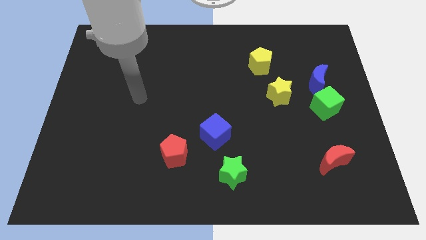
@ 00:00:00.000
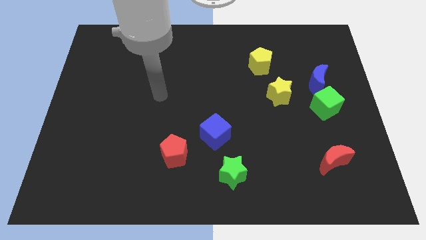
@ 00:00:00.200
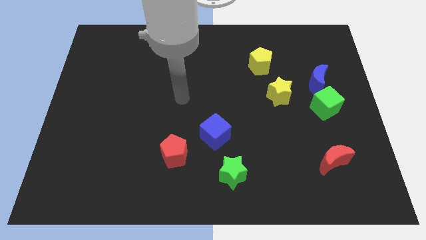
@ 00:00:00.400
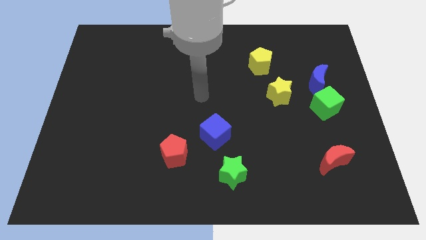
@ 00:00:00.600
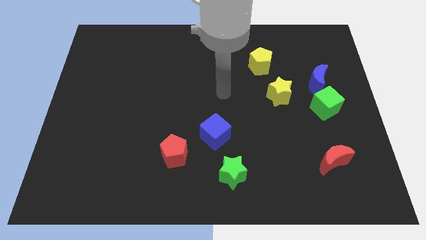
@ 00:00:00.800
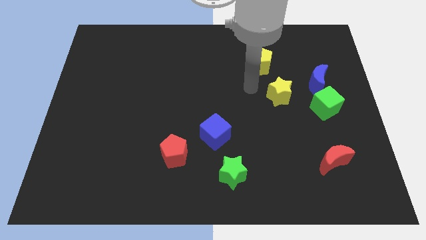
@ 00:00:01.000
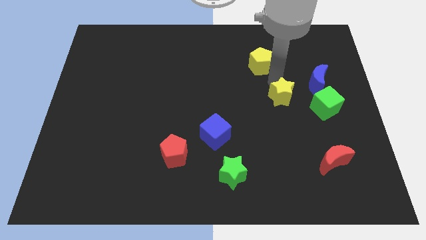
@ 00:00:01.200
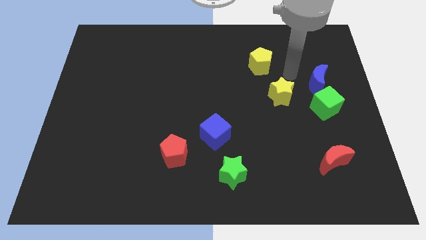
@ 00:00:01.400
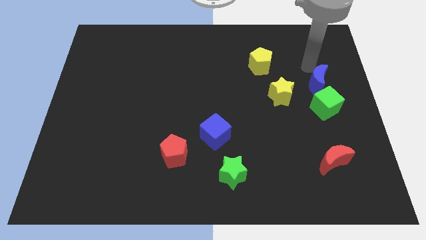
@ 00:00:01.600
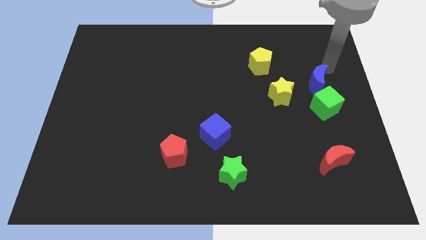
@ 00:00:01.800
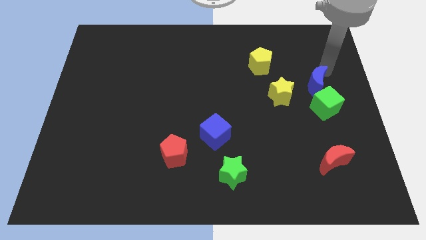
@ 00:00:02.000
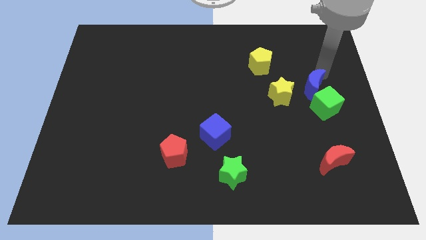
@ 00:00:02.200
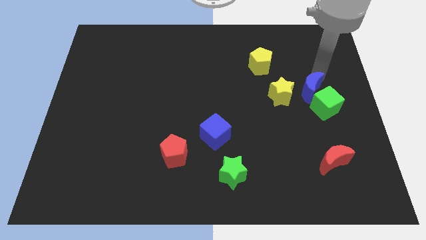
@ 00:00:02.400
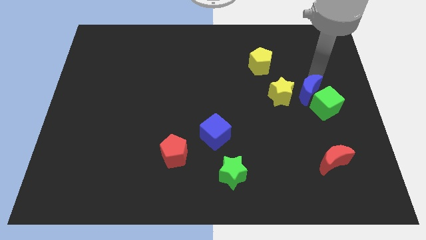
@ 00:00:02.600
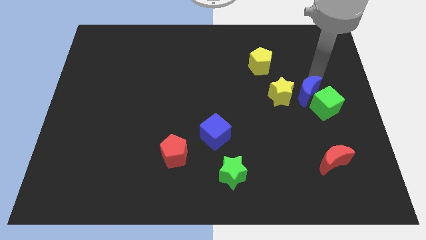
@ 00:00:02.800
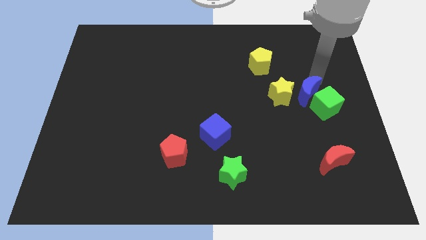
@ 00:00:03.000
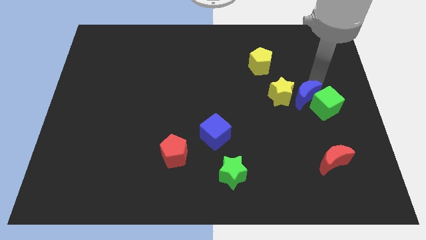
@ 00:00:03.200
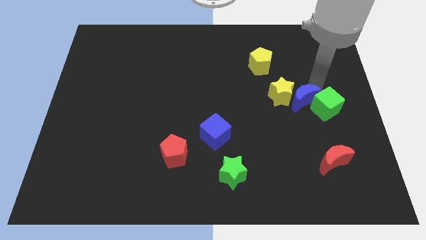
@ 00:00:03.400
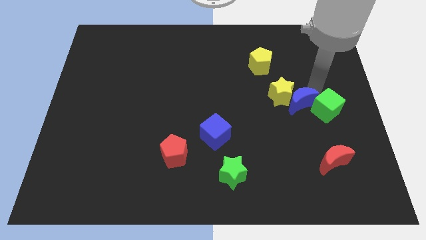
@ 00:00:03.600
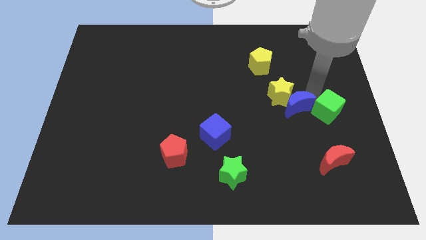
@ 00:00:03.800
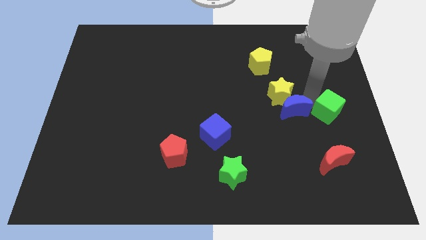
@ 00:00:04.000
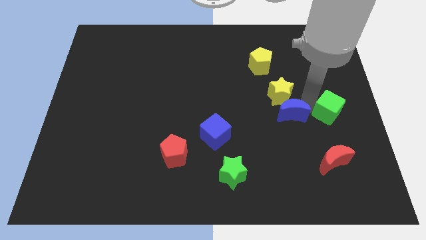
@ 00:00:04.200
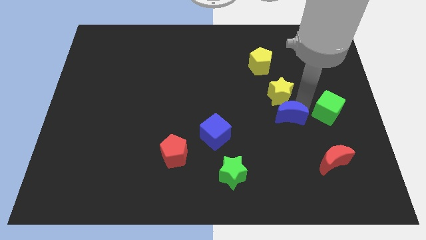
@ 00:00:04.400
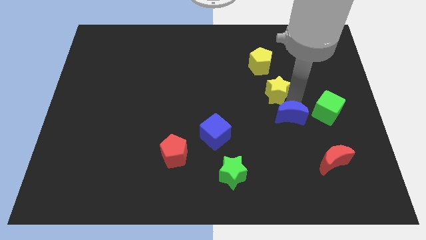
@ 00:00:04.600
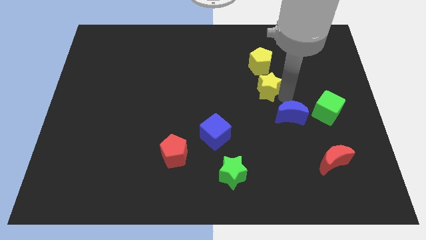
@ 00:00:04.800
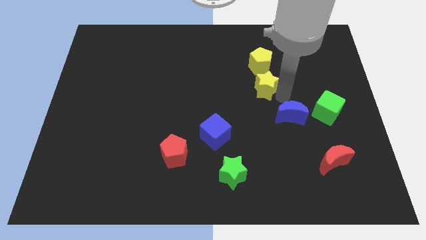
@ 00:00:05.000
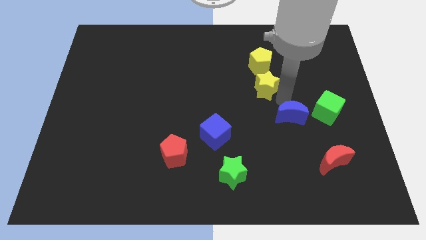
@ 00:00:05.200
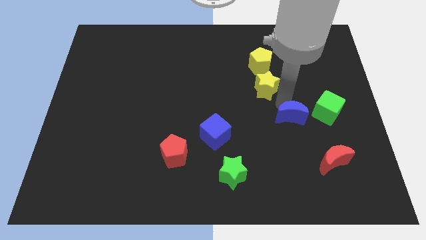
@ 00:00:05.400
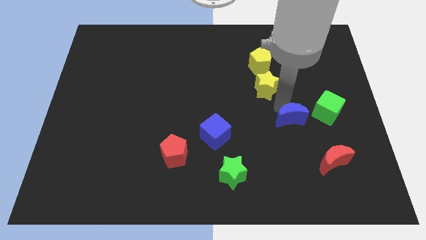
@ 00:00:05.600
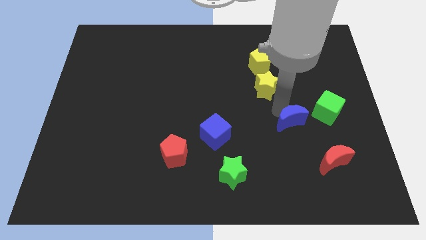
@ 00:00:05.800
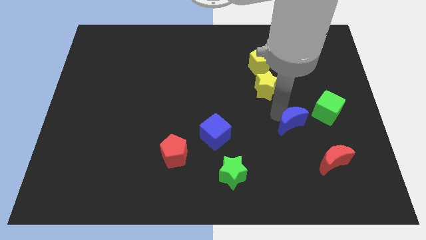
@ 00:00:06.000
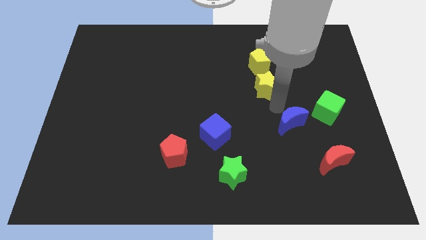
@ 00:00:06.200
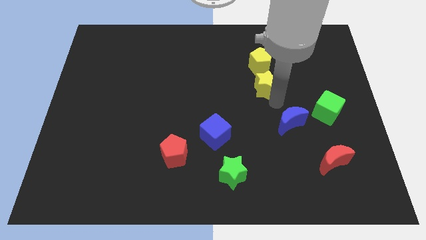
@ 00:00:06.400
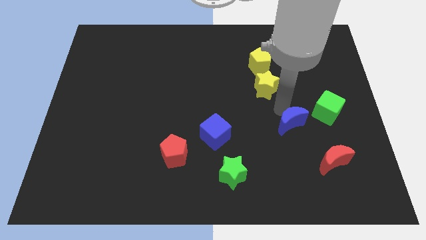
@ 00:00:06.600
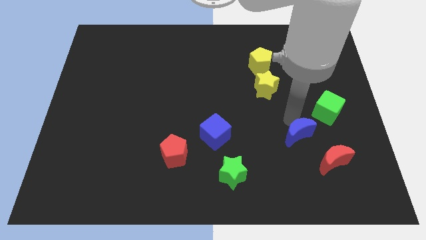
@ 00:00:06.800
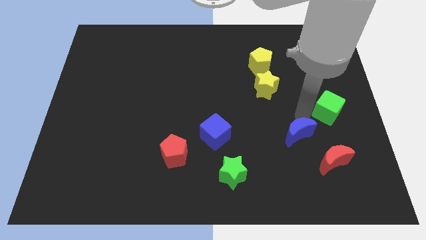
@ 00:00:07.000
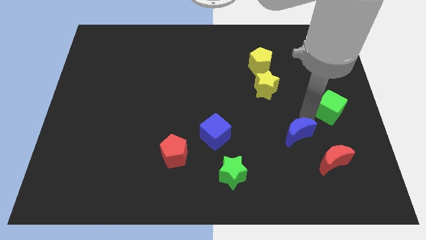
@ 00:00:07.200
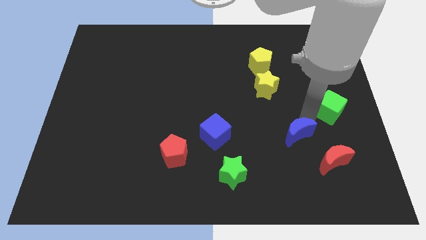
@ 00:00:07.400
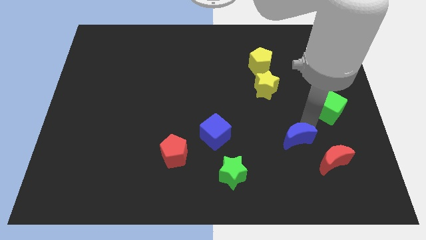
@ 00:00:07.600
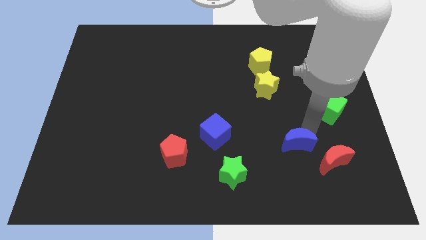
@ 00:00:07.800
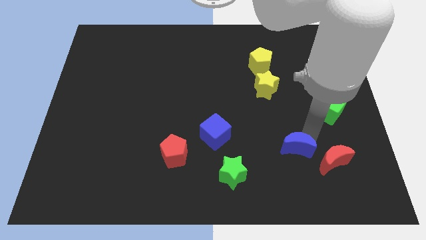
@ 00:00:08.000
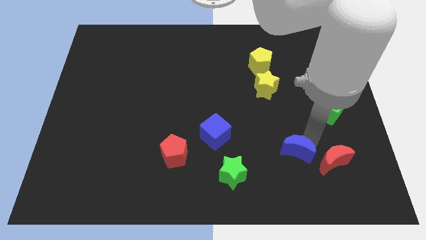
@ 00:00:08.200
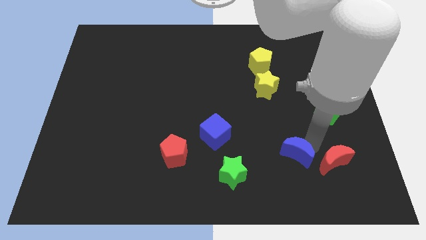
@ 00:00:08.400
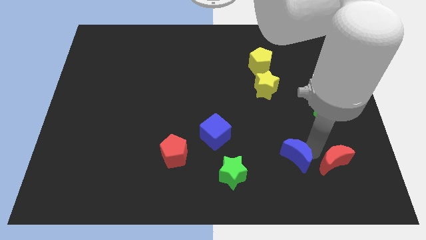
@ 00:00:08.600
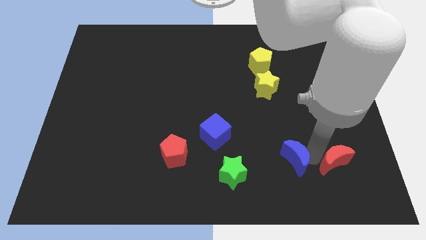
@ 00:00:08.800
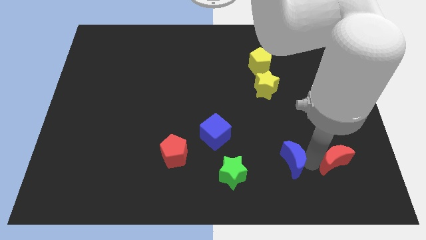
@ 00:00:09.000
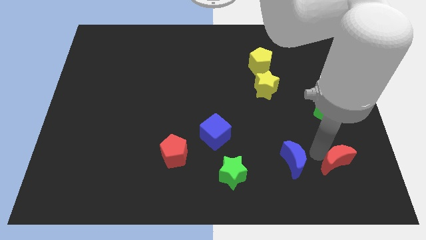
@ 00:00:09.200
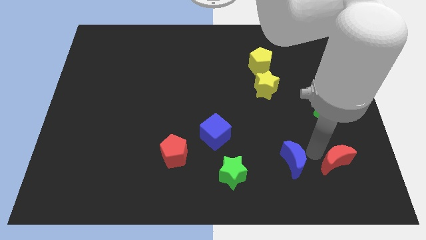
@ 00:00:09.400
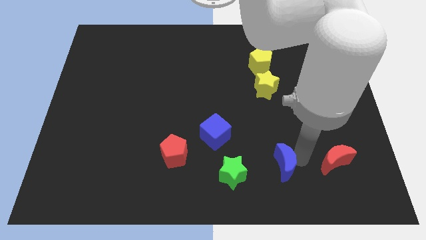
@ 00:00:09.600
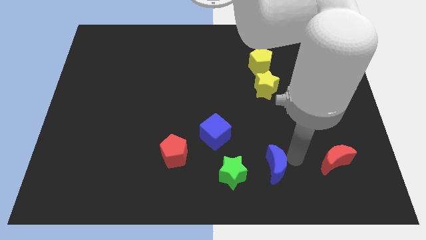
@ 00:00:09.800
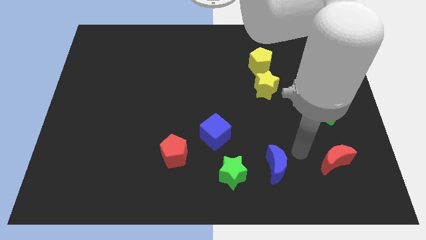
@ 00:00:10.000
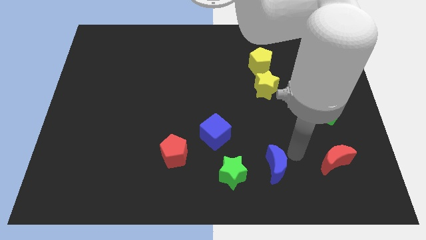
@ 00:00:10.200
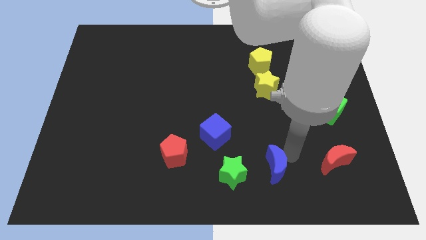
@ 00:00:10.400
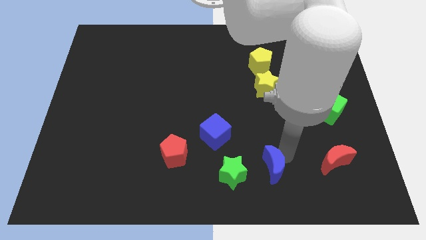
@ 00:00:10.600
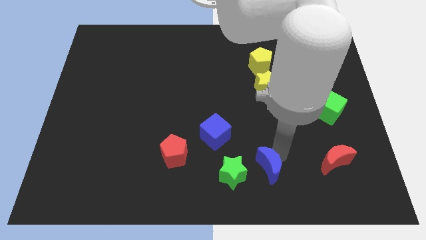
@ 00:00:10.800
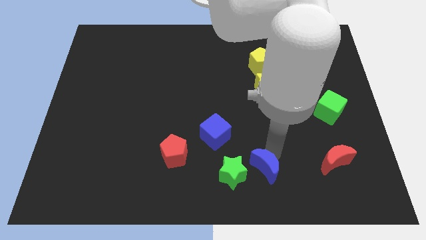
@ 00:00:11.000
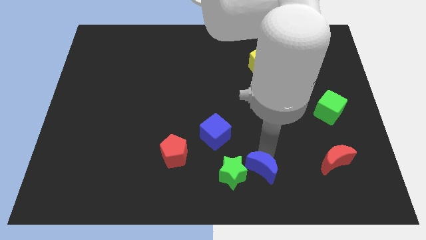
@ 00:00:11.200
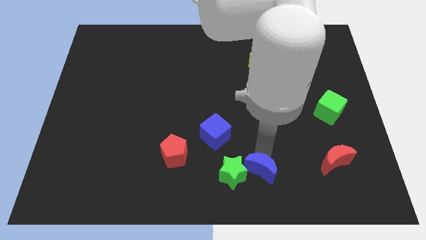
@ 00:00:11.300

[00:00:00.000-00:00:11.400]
move the blue moon to the bottom side

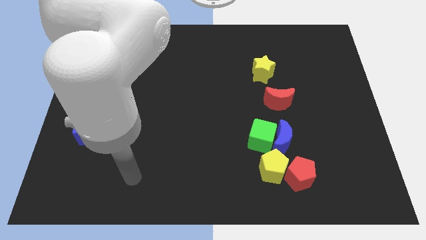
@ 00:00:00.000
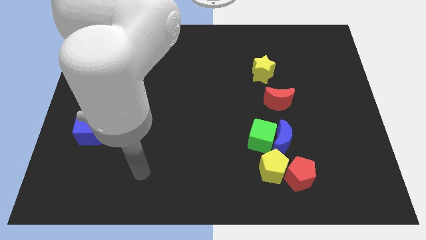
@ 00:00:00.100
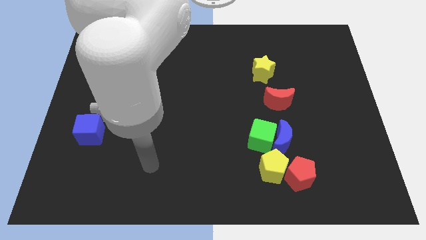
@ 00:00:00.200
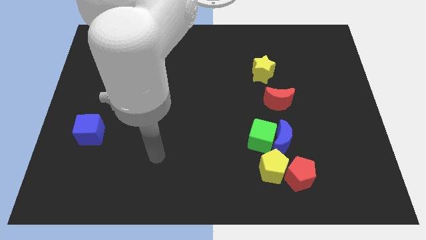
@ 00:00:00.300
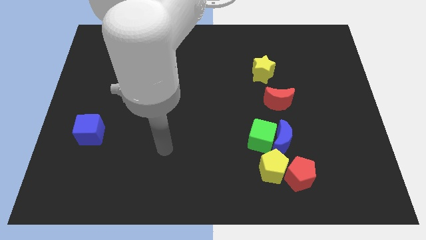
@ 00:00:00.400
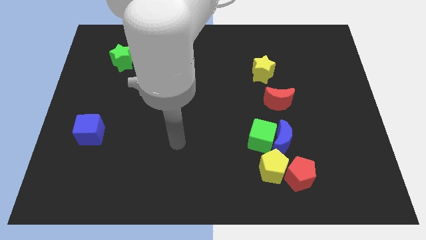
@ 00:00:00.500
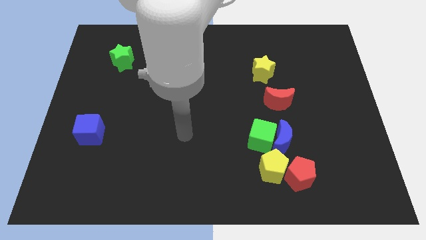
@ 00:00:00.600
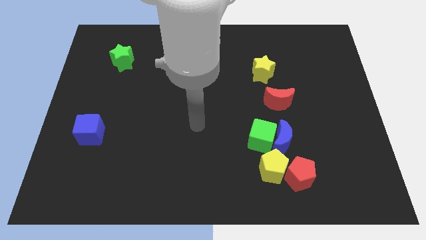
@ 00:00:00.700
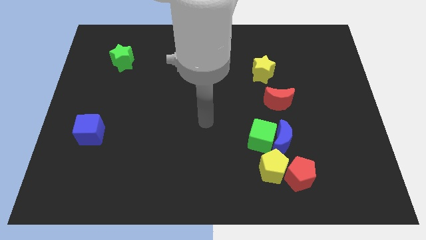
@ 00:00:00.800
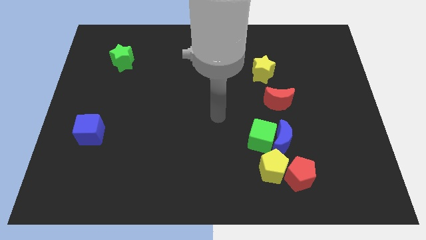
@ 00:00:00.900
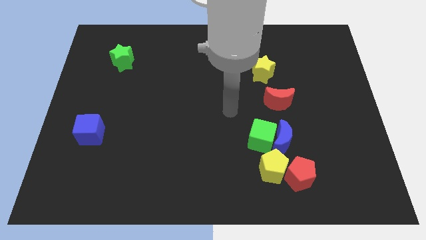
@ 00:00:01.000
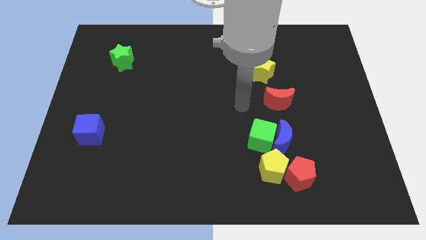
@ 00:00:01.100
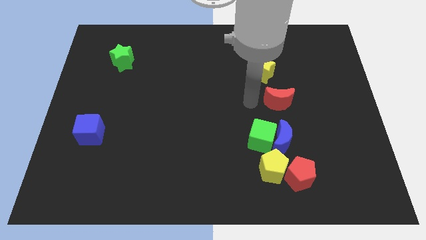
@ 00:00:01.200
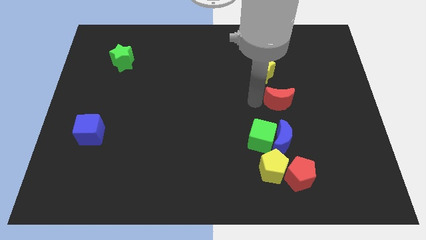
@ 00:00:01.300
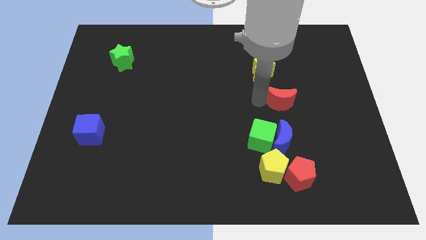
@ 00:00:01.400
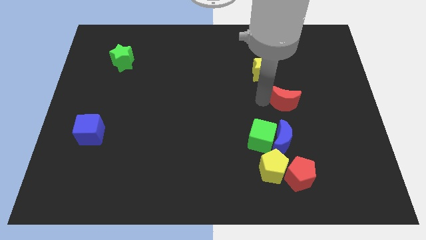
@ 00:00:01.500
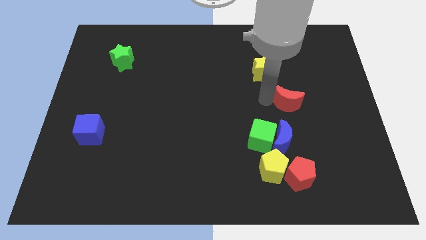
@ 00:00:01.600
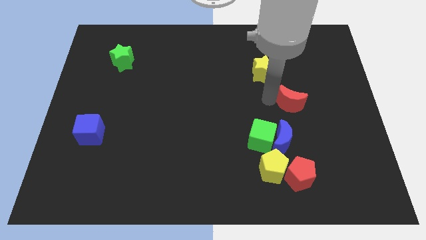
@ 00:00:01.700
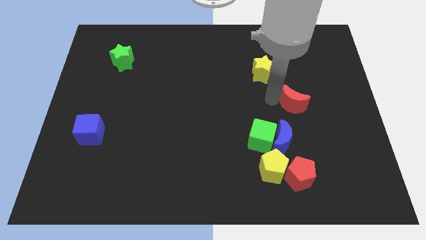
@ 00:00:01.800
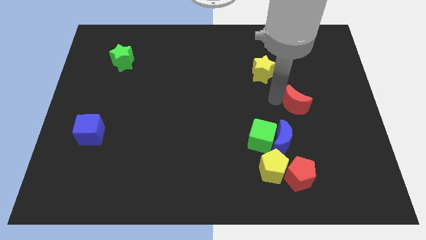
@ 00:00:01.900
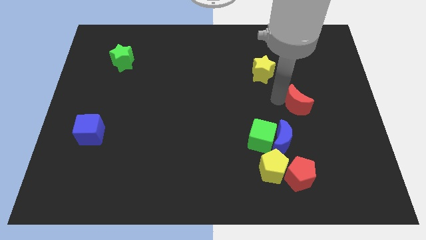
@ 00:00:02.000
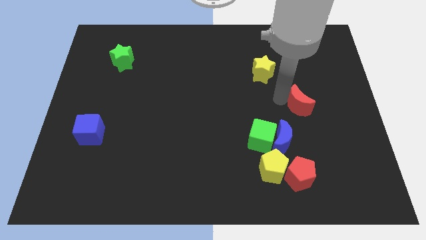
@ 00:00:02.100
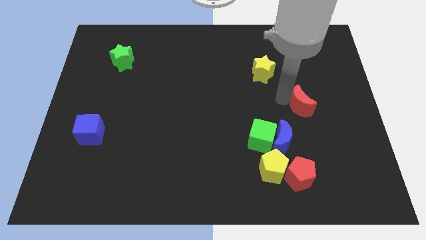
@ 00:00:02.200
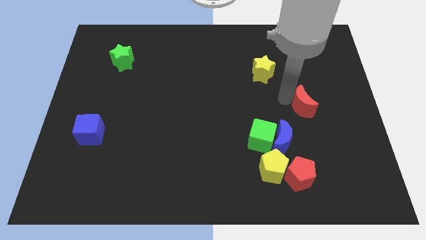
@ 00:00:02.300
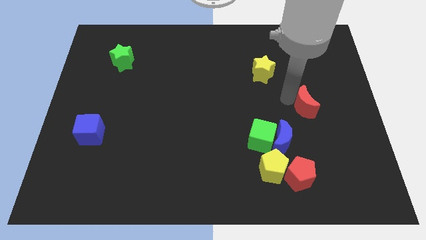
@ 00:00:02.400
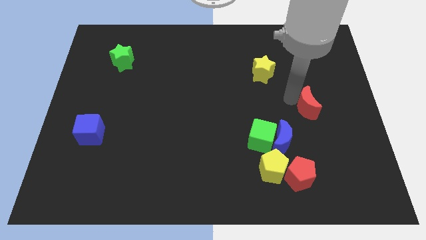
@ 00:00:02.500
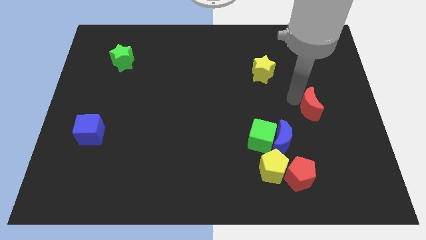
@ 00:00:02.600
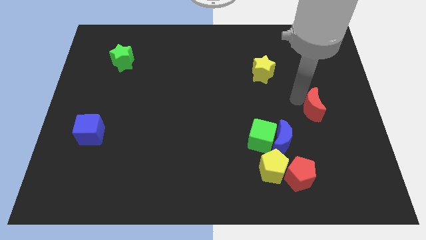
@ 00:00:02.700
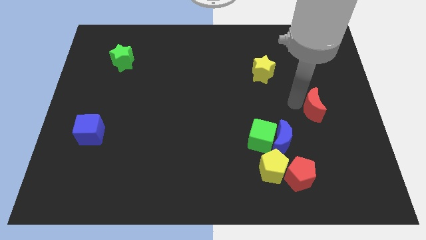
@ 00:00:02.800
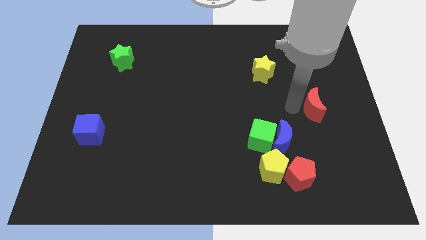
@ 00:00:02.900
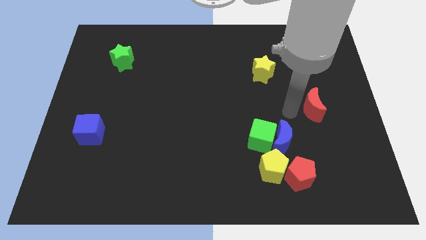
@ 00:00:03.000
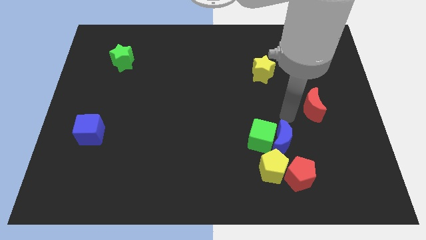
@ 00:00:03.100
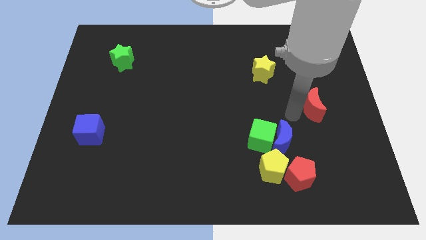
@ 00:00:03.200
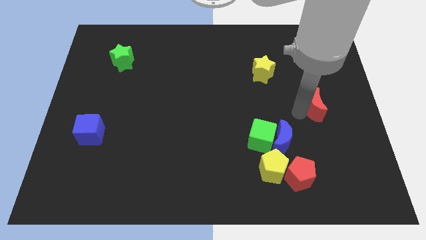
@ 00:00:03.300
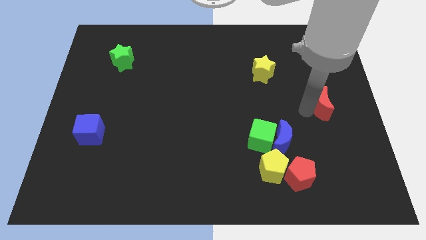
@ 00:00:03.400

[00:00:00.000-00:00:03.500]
push the red moon to the center right
